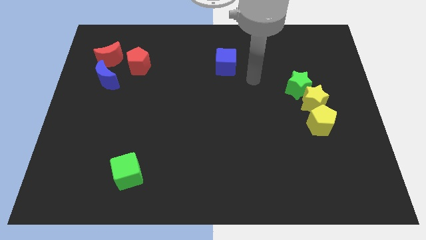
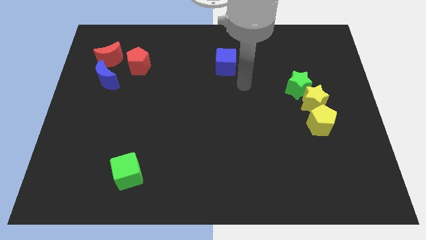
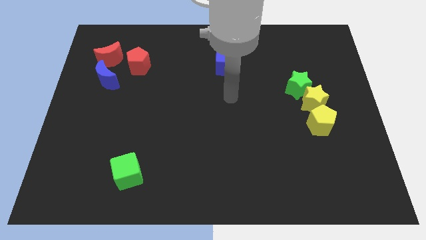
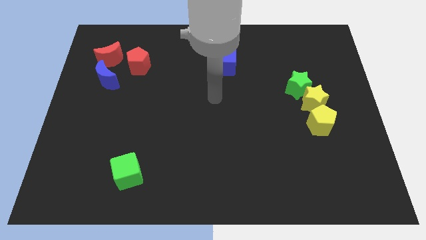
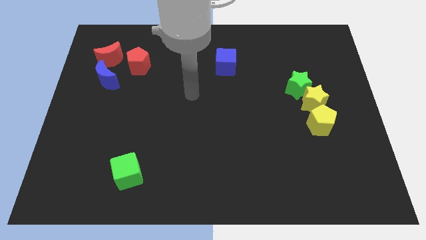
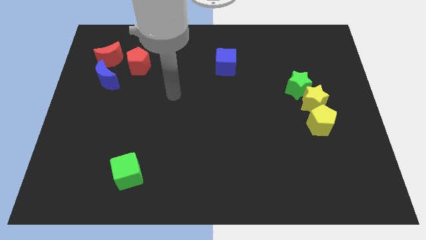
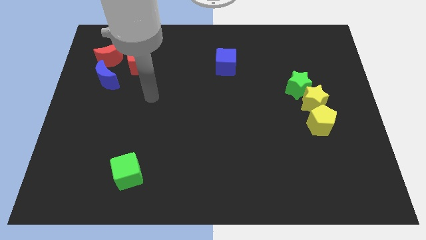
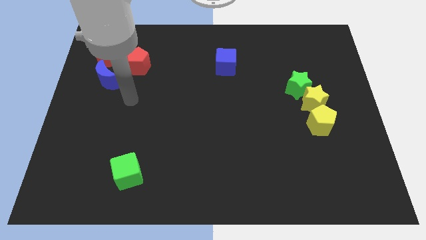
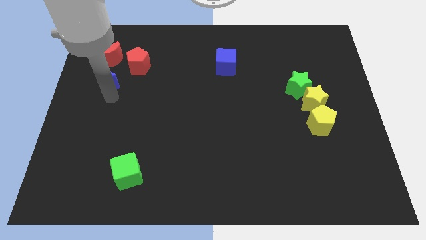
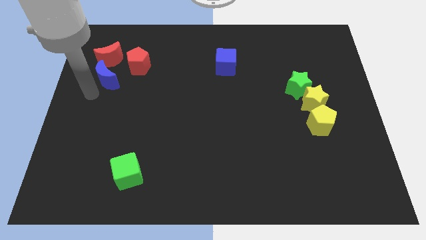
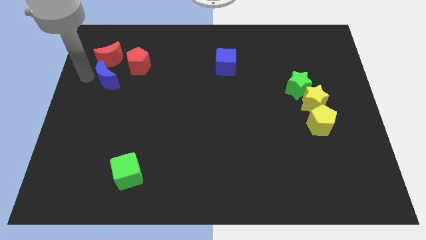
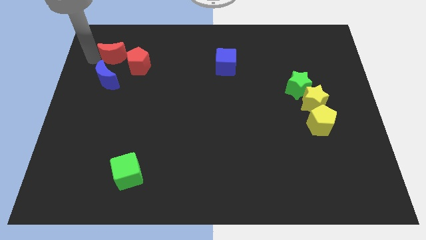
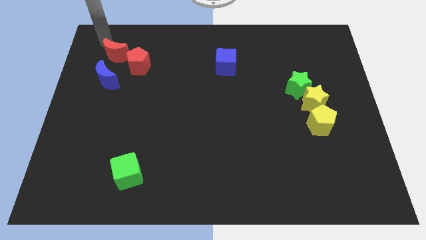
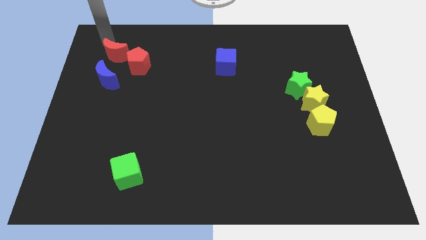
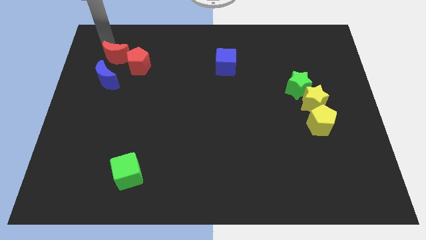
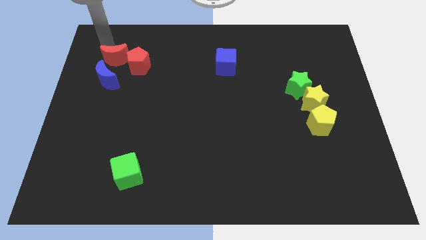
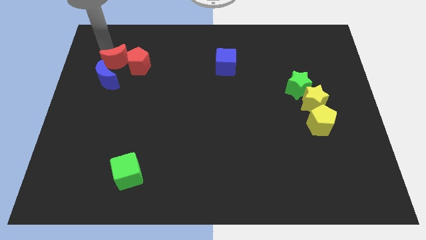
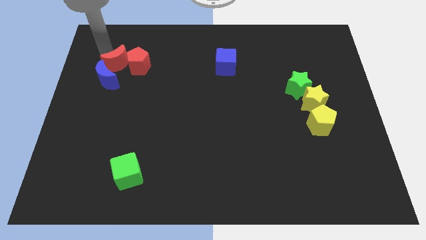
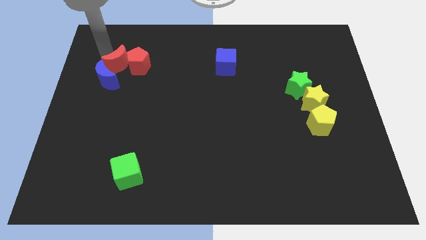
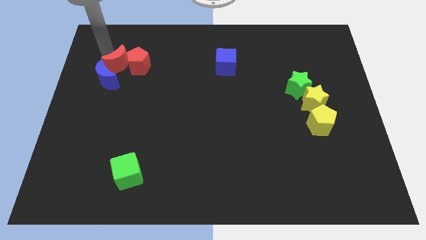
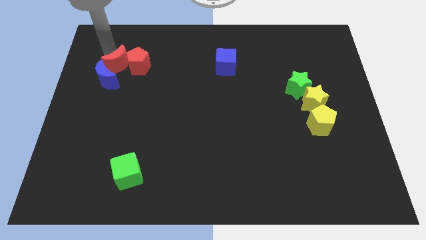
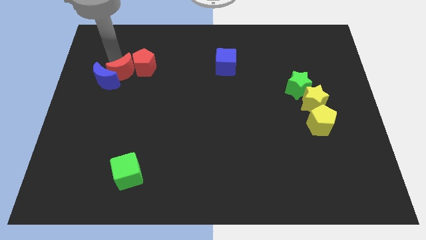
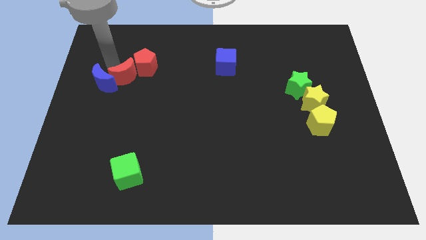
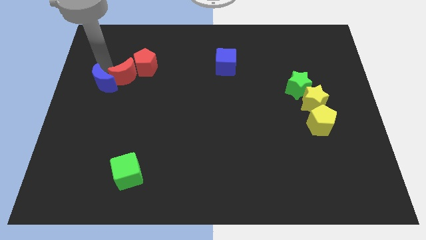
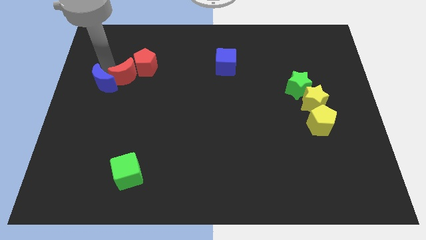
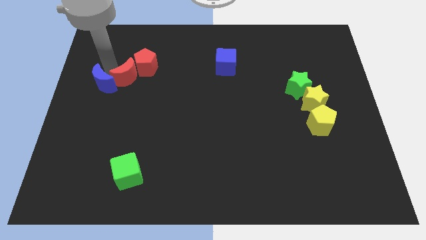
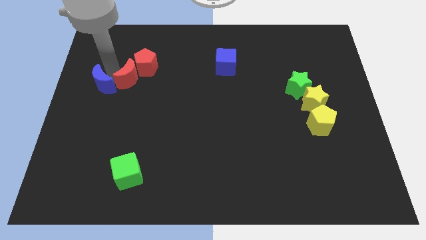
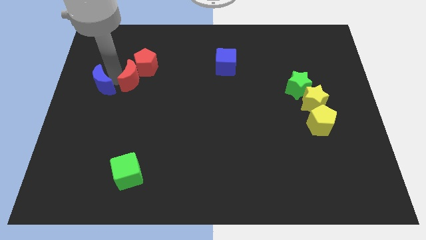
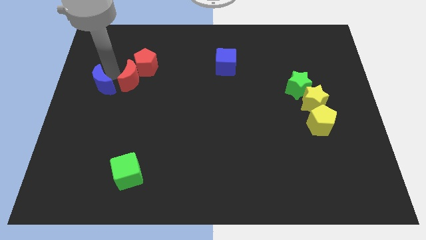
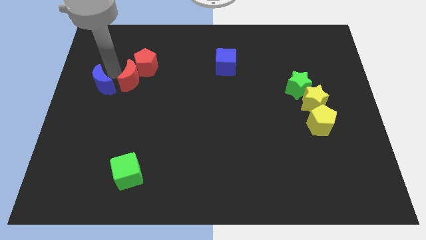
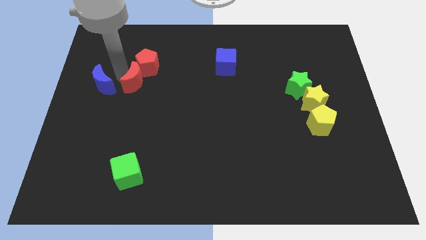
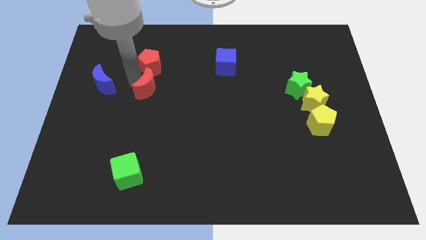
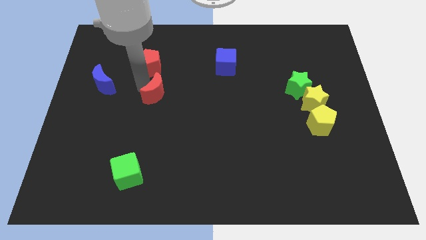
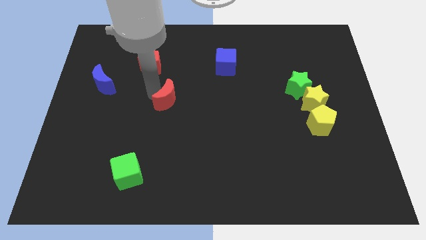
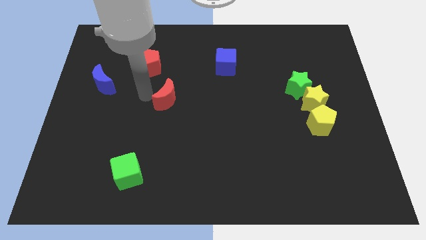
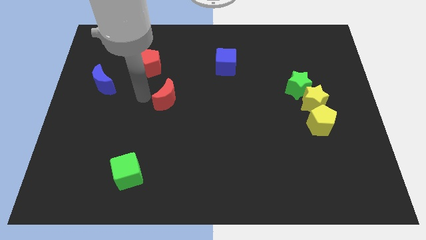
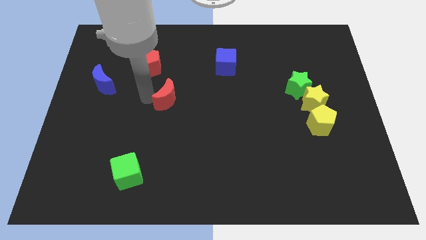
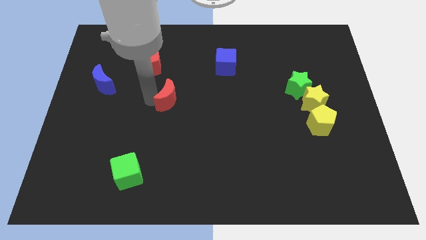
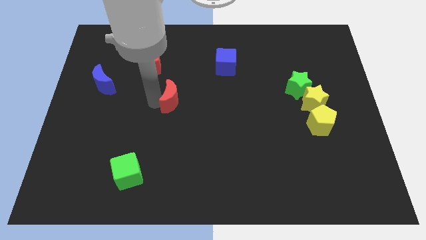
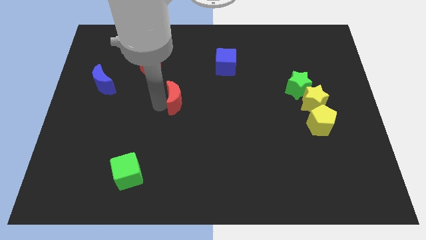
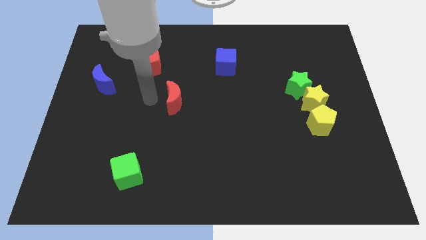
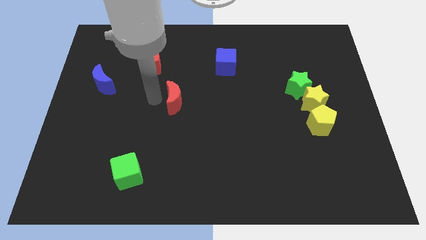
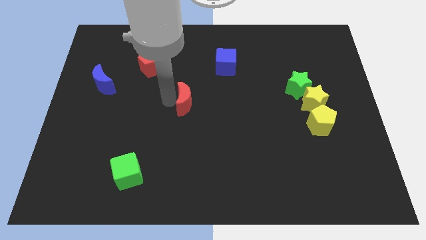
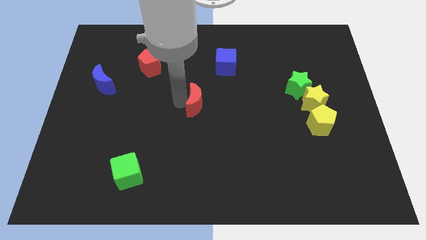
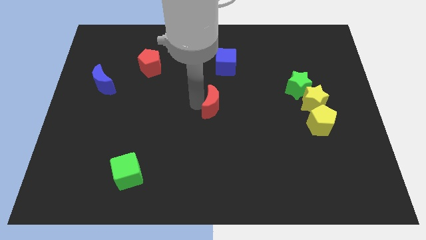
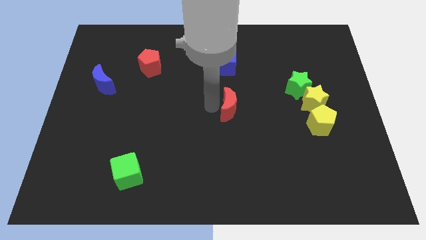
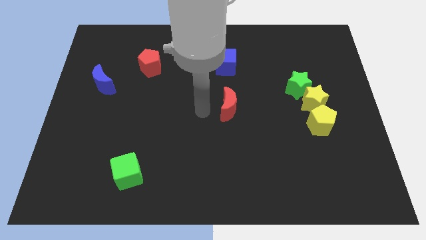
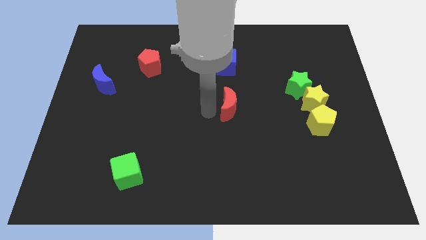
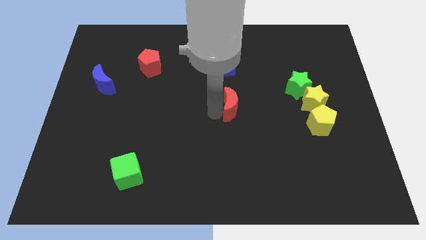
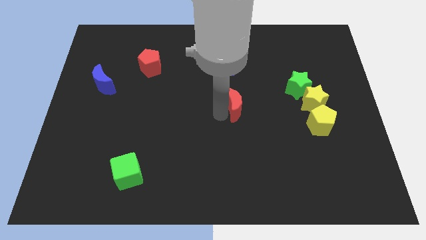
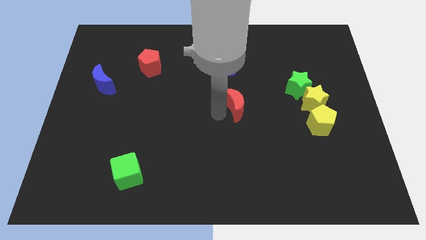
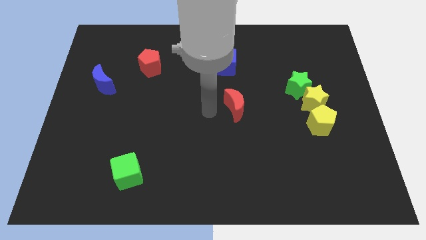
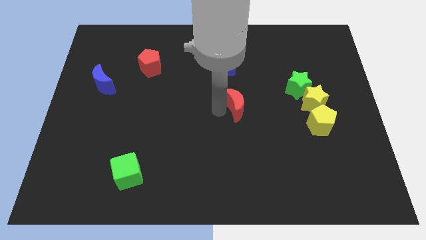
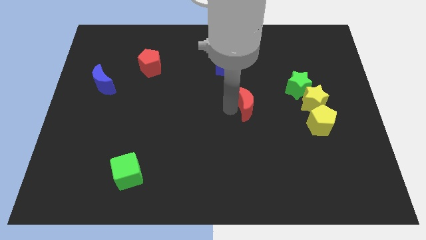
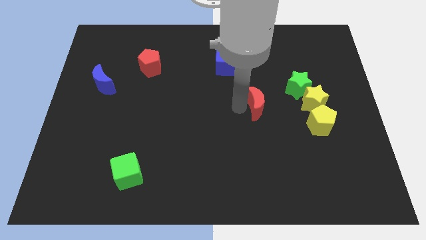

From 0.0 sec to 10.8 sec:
slide the red moon diagonally down and to the left of the green star

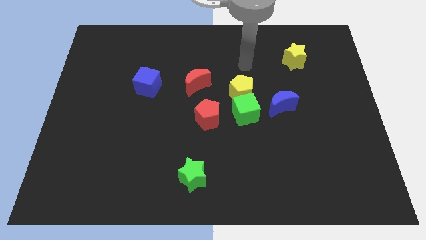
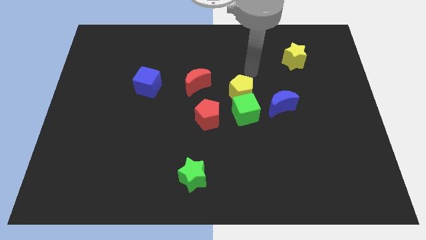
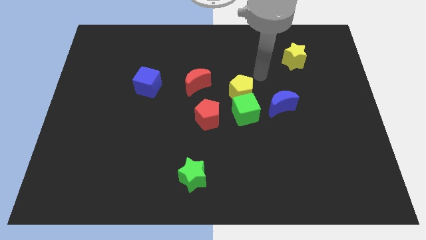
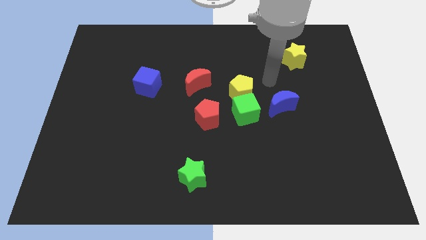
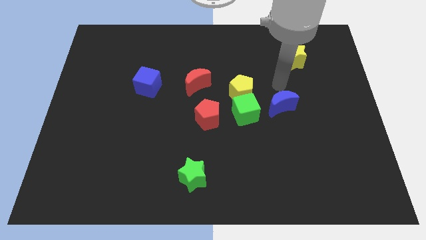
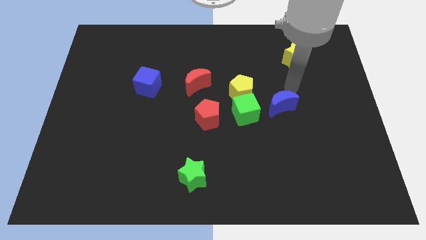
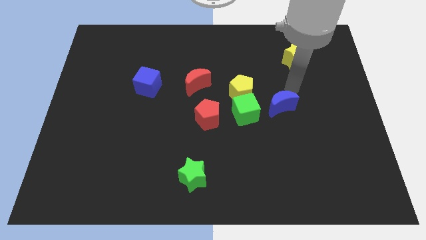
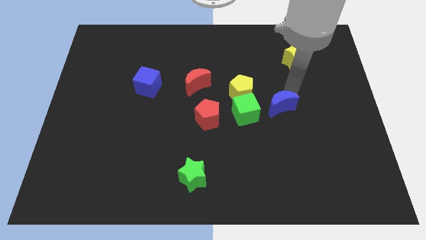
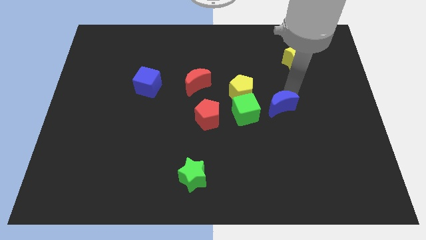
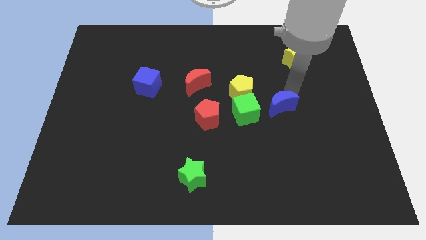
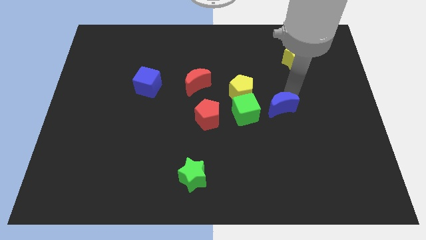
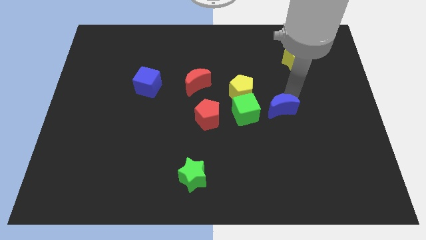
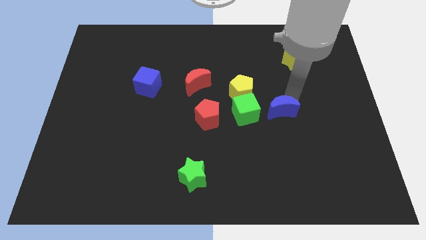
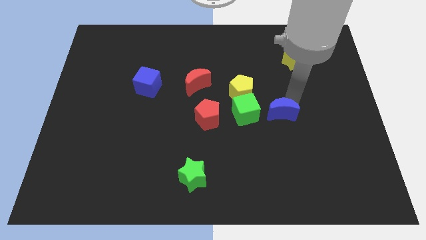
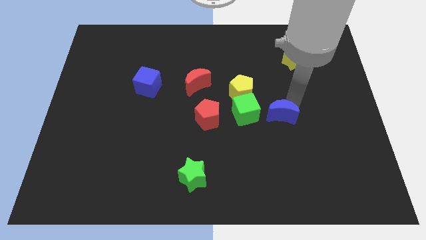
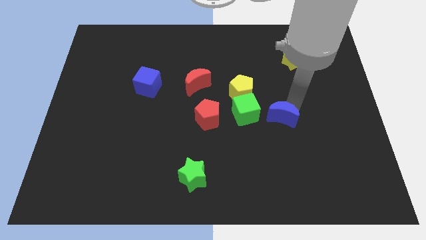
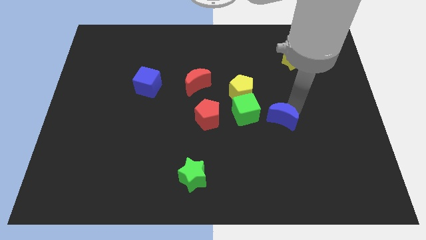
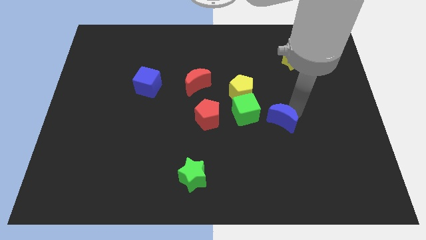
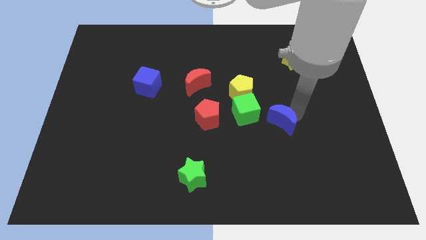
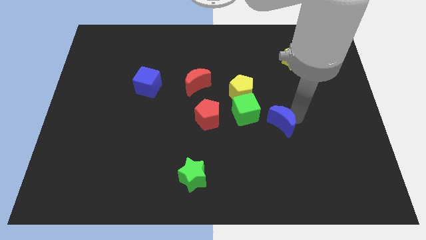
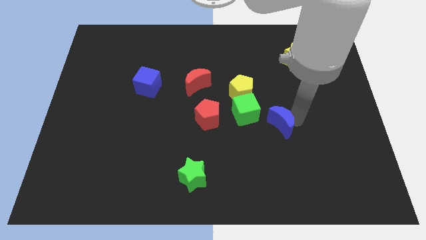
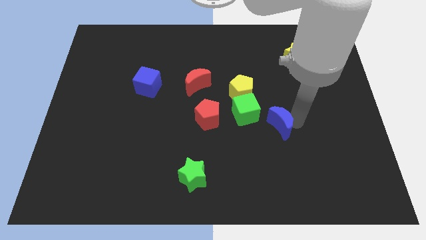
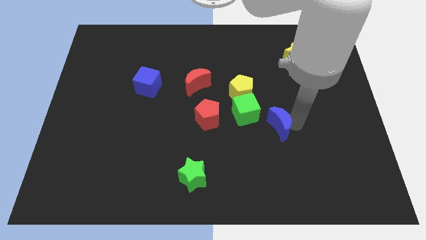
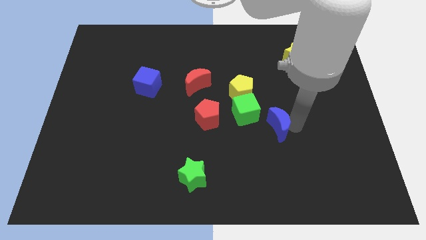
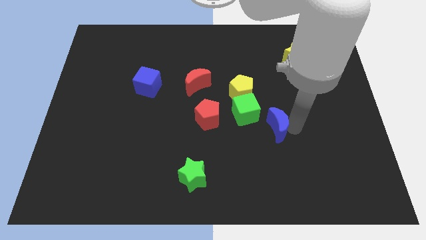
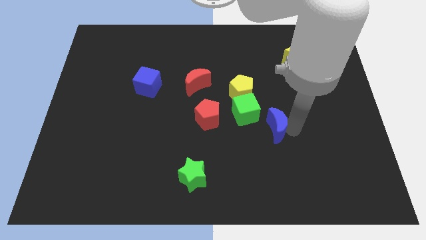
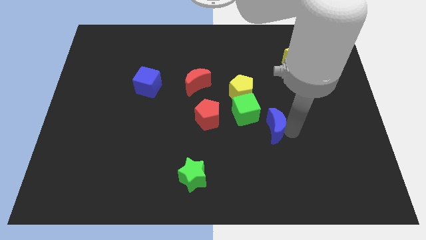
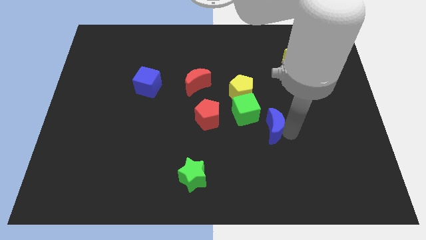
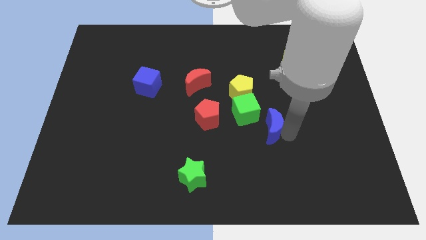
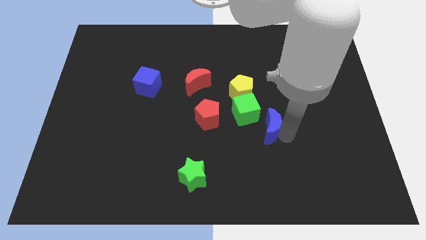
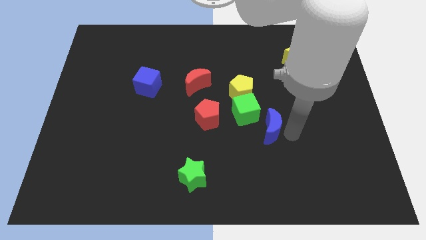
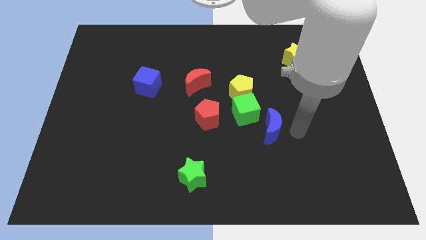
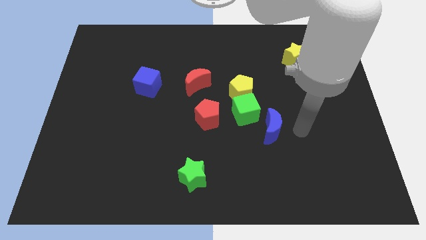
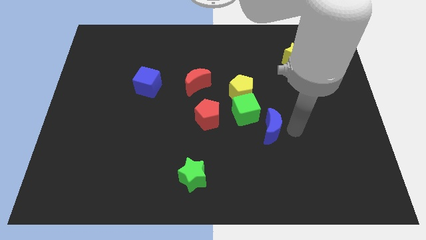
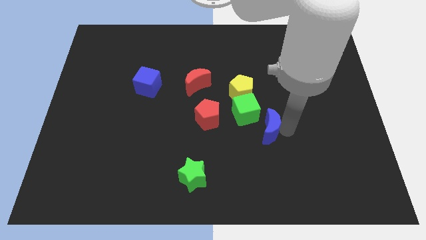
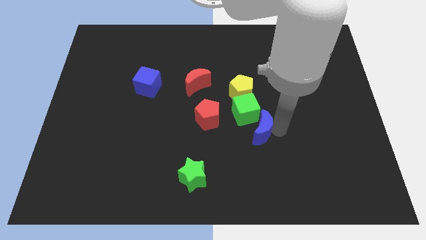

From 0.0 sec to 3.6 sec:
move the blue moon below the yellow pentagon
